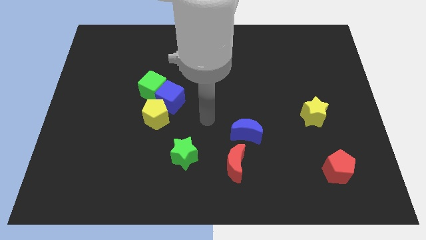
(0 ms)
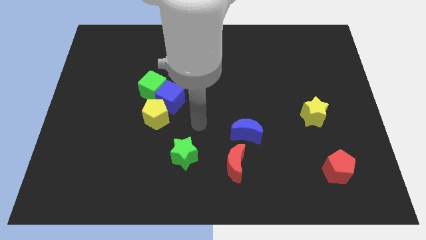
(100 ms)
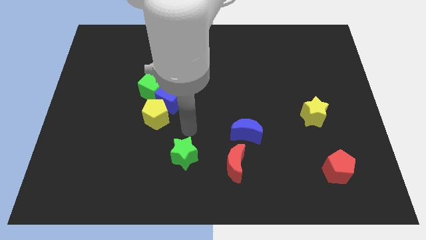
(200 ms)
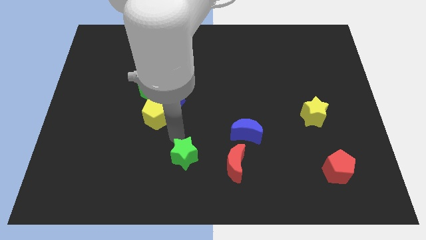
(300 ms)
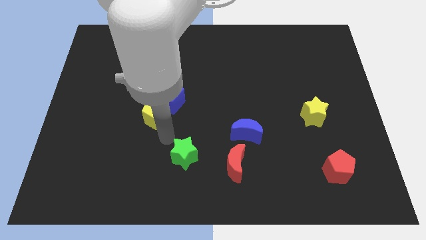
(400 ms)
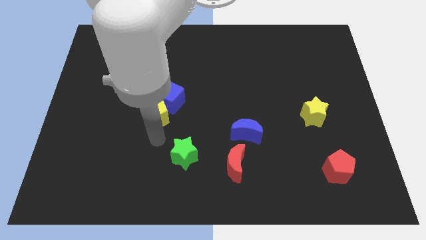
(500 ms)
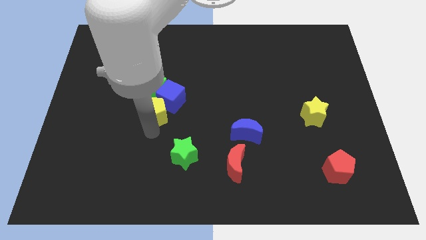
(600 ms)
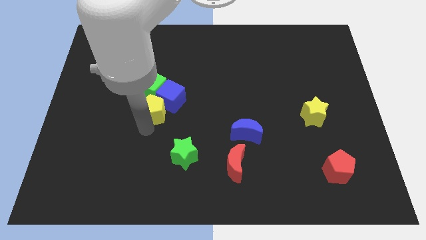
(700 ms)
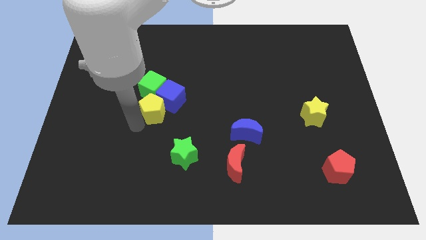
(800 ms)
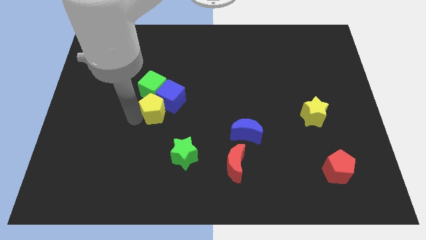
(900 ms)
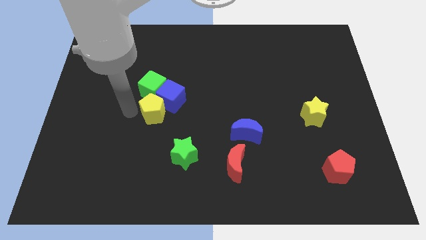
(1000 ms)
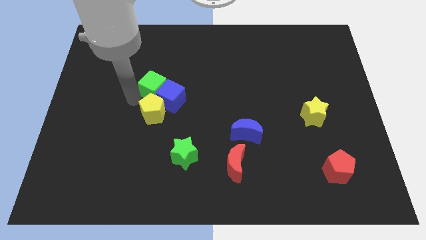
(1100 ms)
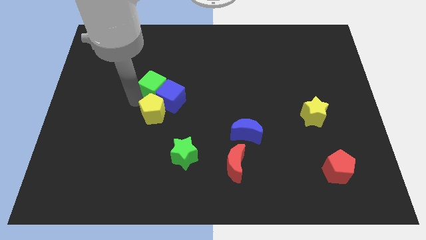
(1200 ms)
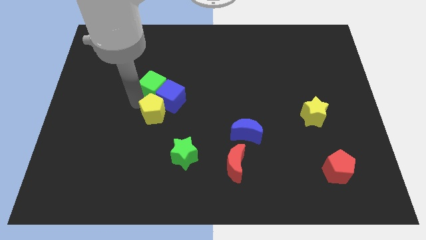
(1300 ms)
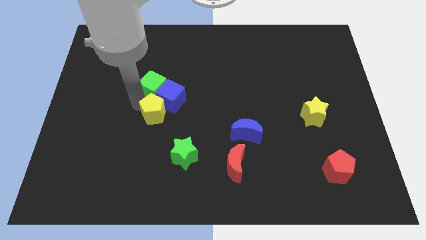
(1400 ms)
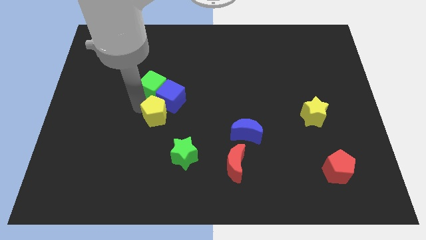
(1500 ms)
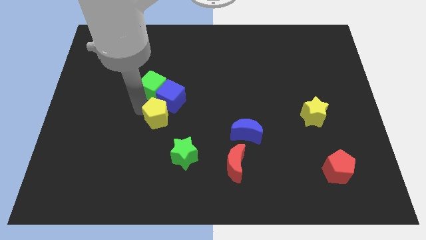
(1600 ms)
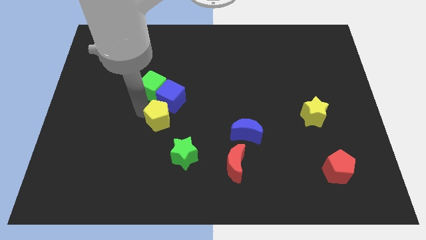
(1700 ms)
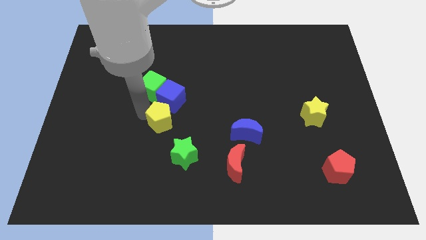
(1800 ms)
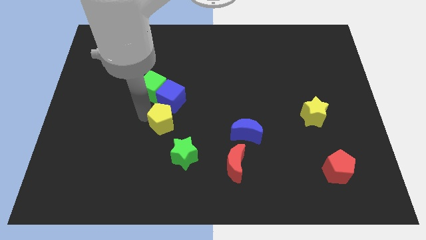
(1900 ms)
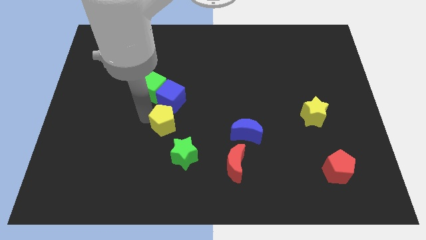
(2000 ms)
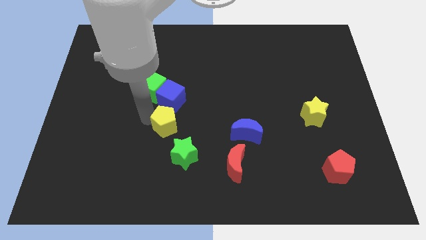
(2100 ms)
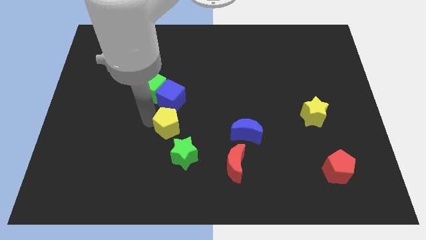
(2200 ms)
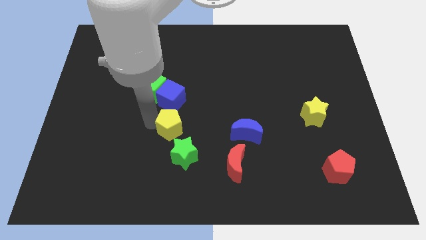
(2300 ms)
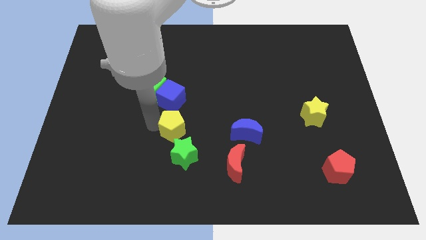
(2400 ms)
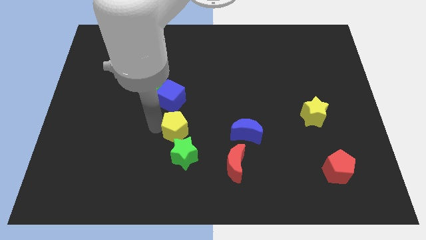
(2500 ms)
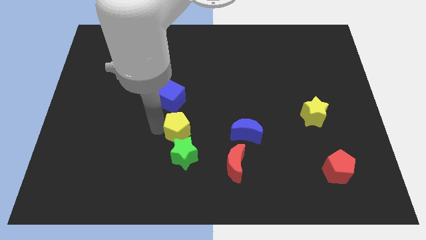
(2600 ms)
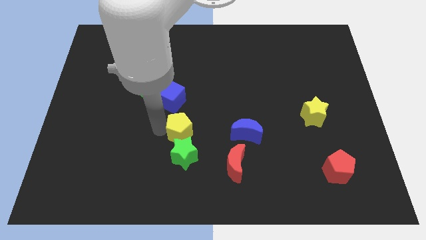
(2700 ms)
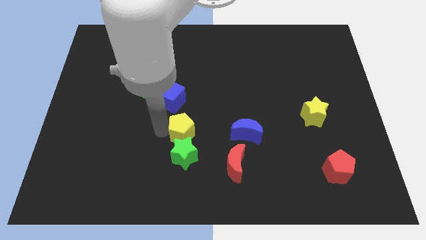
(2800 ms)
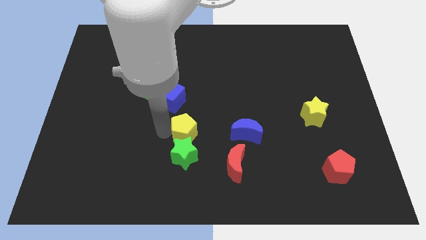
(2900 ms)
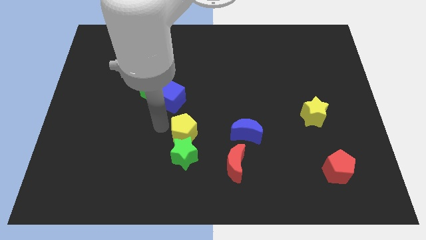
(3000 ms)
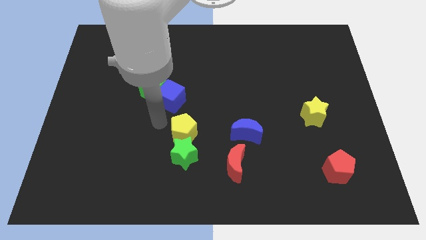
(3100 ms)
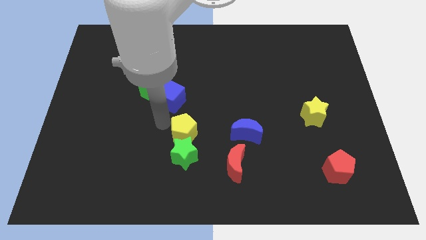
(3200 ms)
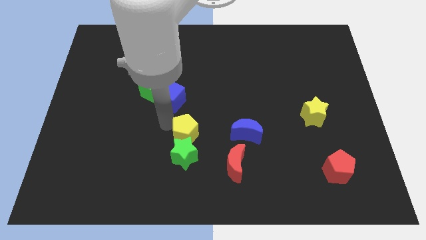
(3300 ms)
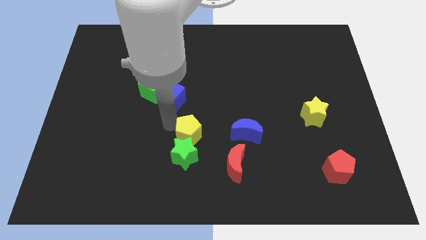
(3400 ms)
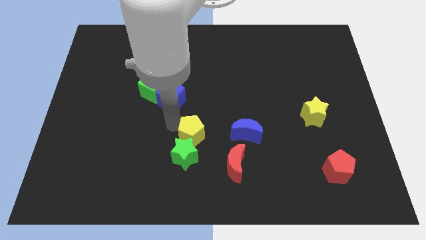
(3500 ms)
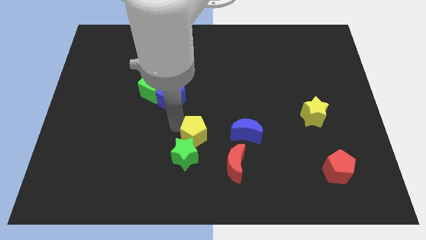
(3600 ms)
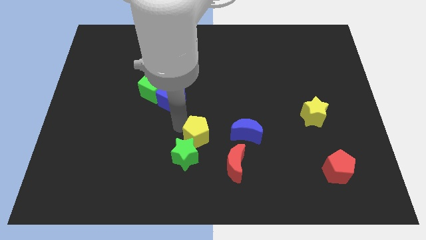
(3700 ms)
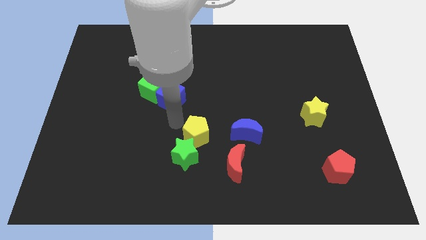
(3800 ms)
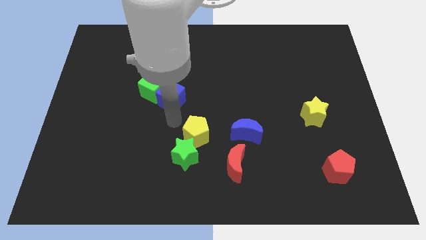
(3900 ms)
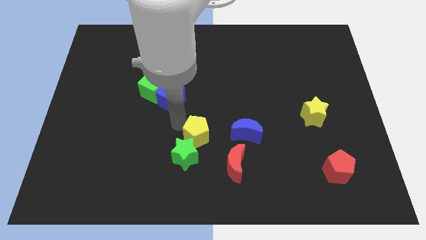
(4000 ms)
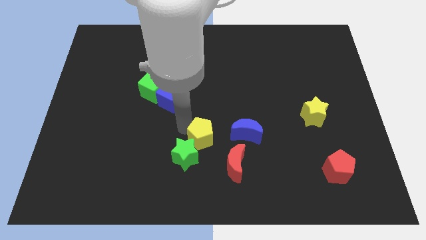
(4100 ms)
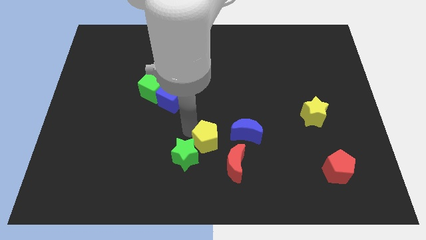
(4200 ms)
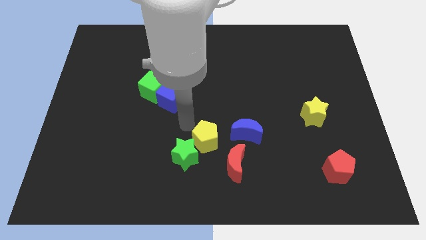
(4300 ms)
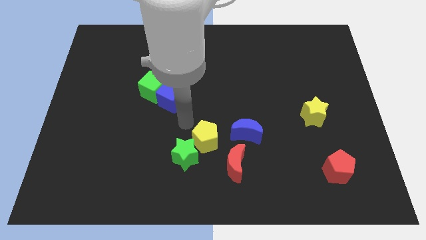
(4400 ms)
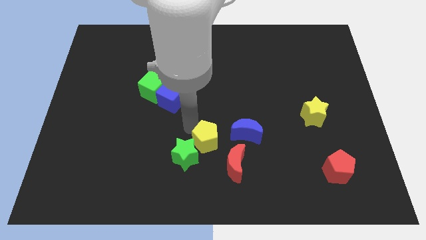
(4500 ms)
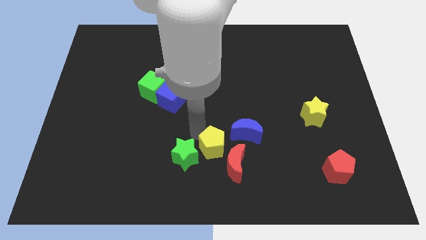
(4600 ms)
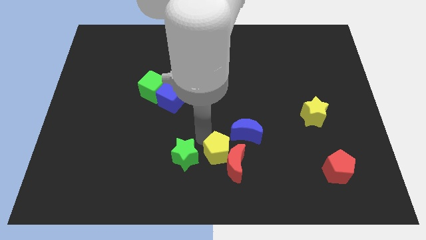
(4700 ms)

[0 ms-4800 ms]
move the yellow pentagon towards the red moon

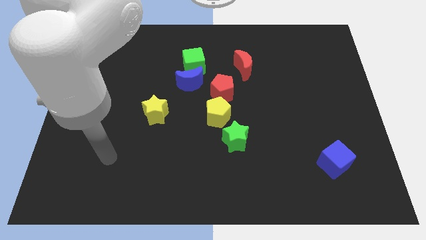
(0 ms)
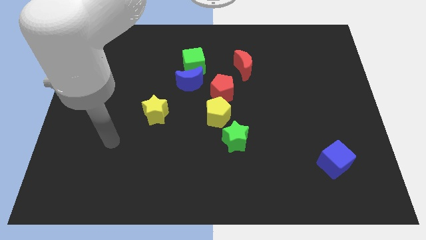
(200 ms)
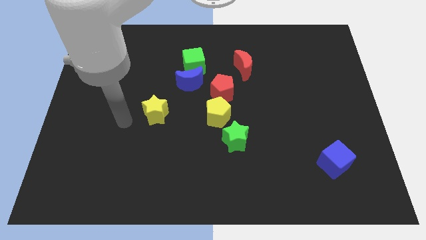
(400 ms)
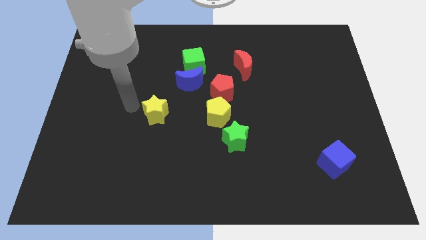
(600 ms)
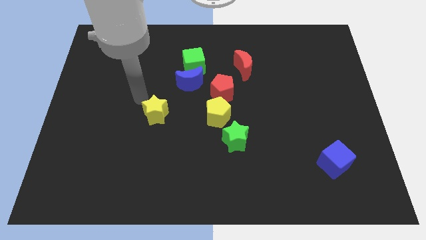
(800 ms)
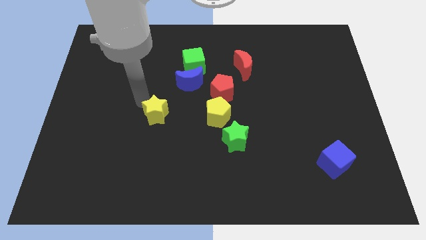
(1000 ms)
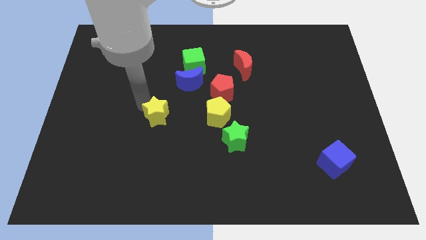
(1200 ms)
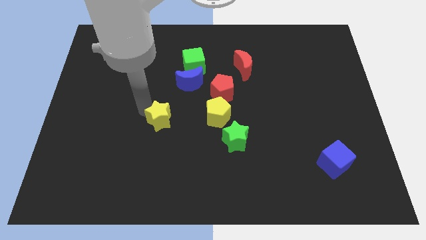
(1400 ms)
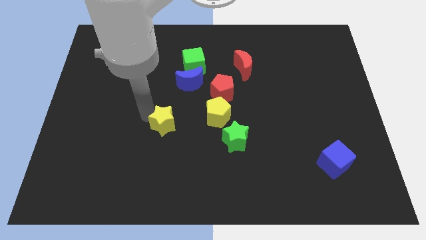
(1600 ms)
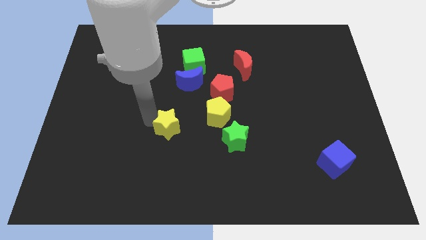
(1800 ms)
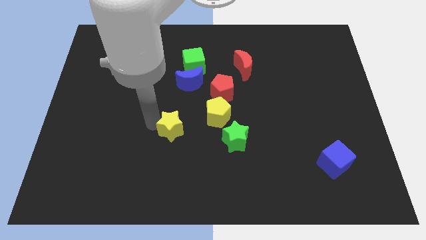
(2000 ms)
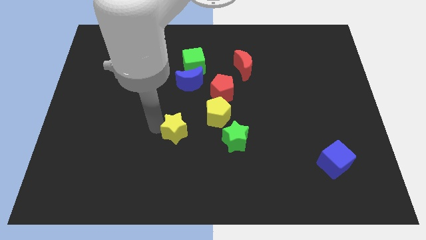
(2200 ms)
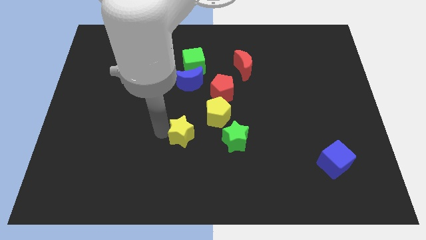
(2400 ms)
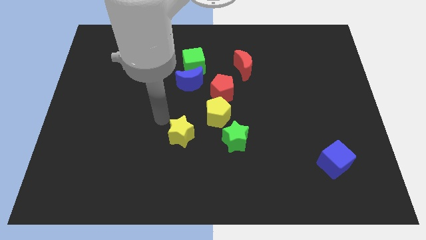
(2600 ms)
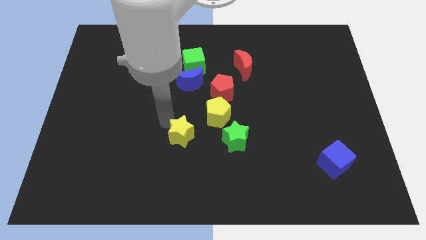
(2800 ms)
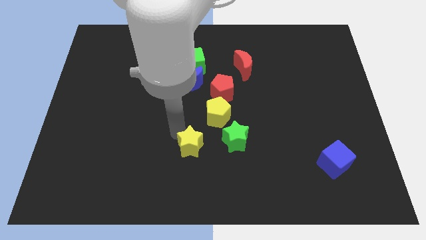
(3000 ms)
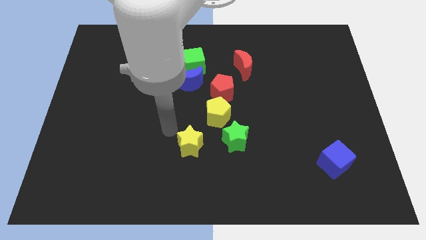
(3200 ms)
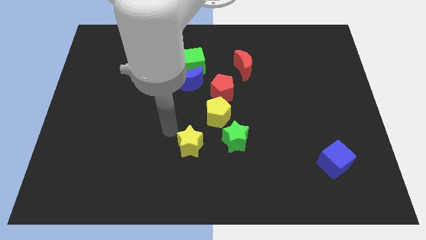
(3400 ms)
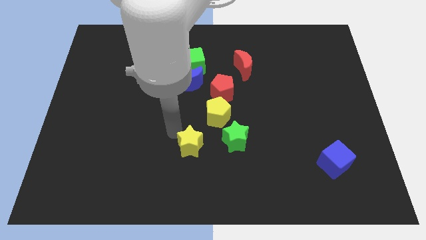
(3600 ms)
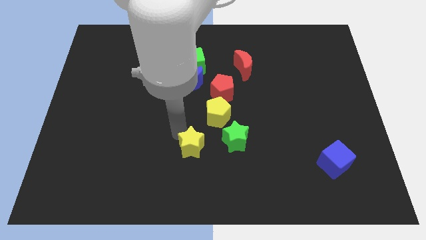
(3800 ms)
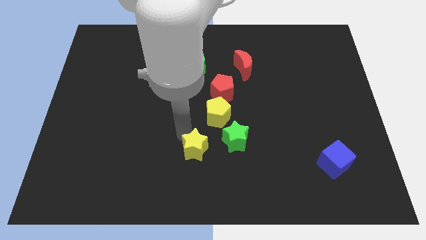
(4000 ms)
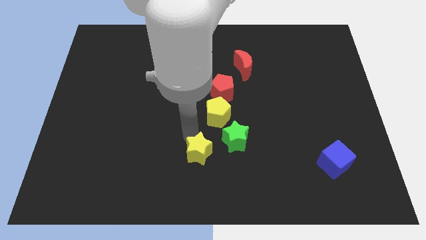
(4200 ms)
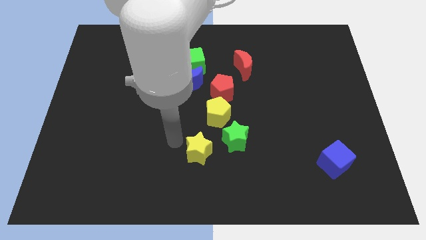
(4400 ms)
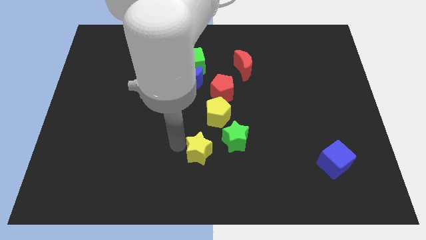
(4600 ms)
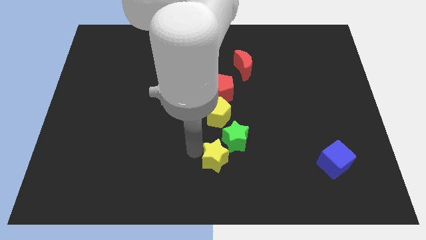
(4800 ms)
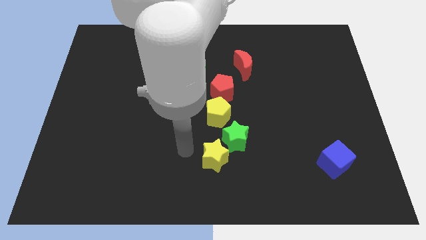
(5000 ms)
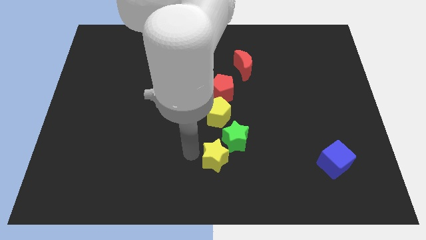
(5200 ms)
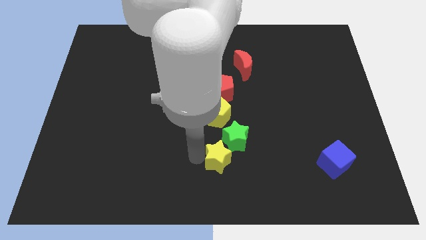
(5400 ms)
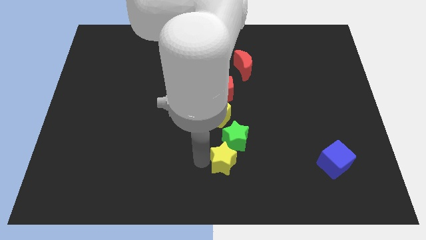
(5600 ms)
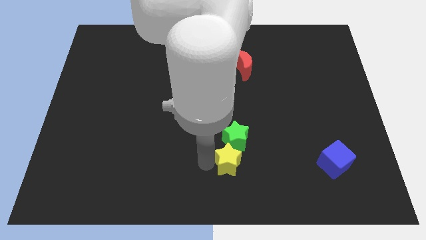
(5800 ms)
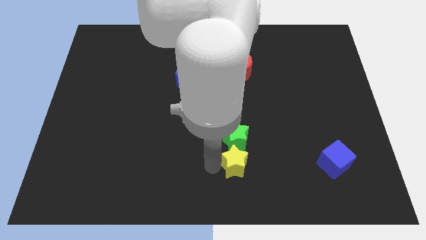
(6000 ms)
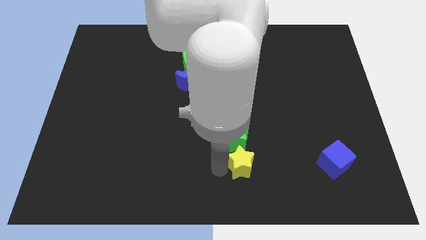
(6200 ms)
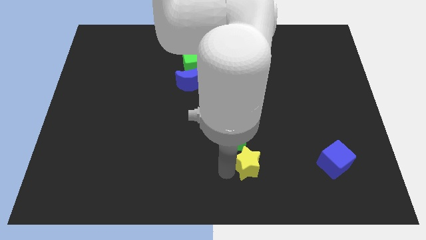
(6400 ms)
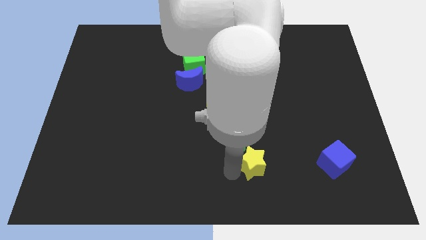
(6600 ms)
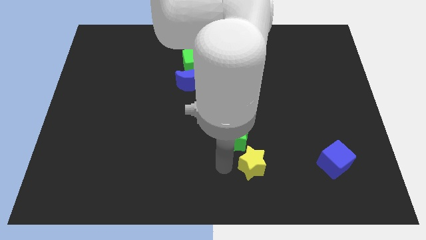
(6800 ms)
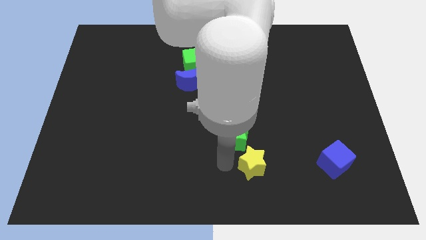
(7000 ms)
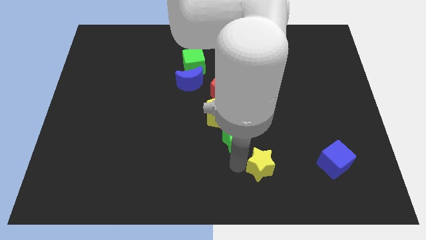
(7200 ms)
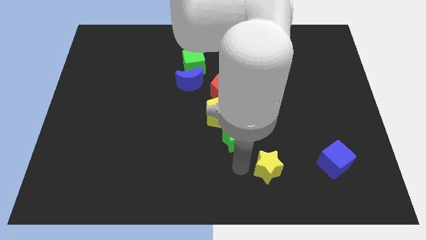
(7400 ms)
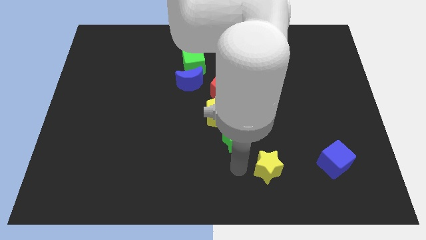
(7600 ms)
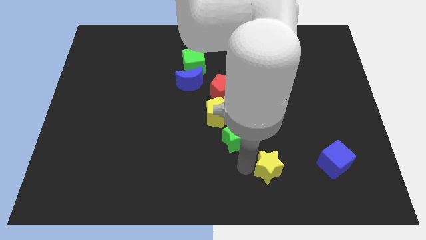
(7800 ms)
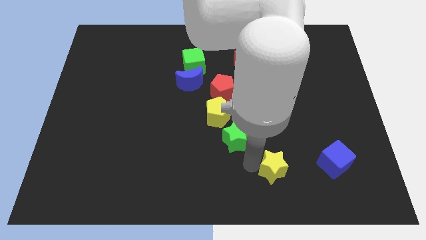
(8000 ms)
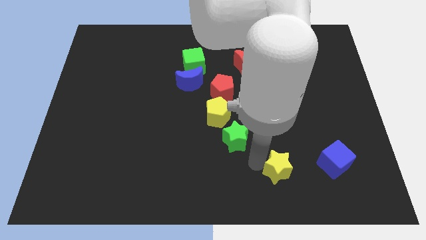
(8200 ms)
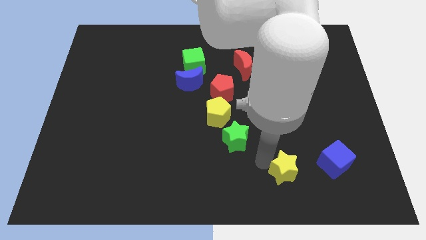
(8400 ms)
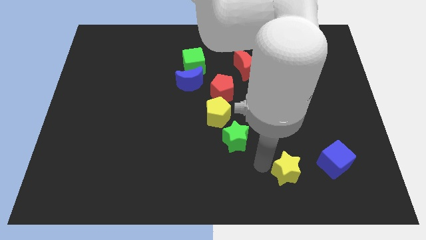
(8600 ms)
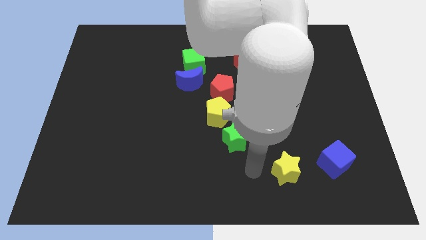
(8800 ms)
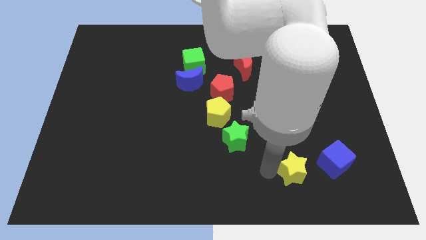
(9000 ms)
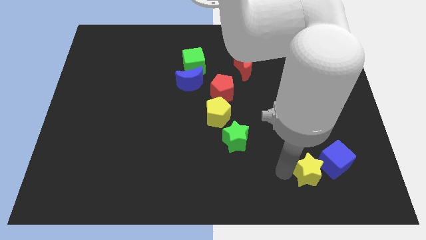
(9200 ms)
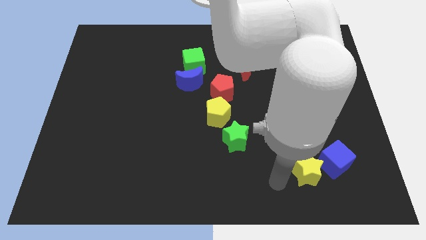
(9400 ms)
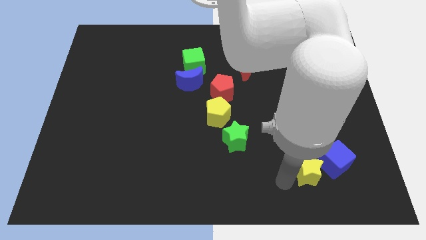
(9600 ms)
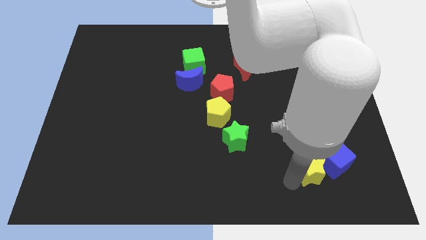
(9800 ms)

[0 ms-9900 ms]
push the yellow star to the blue cube
